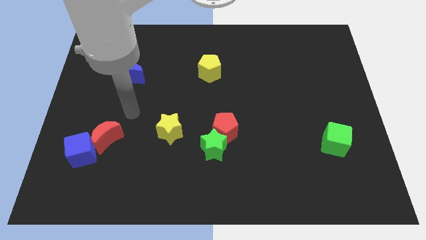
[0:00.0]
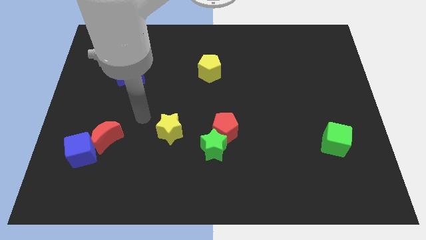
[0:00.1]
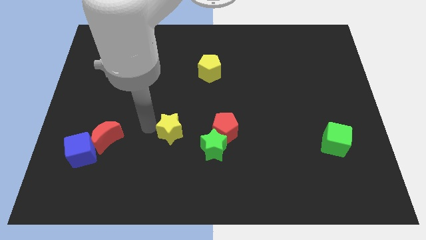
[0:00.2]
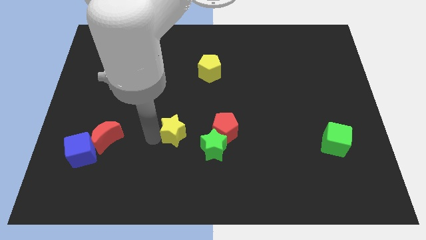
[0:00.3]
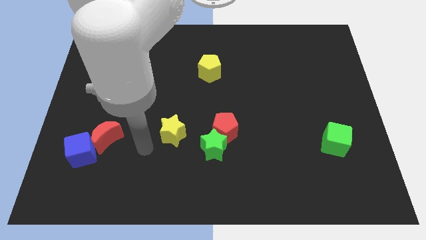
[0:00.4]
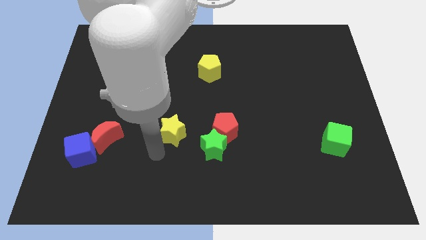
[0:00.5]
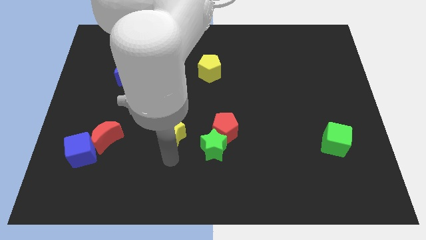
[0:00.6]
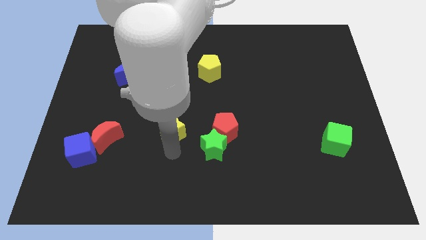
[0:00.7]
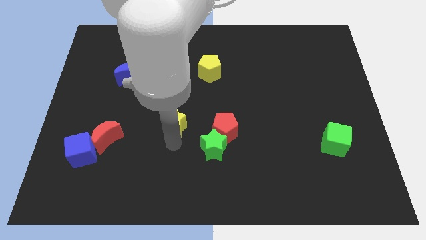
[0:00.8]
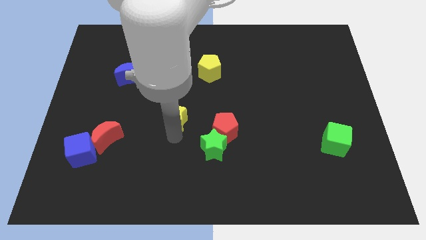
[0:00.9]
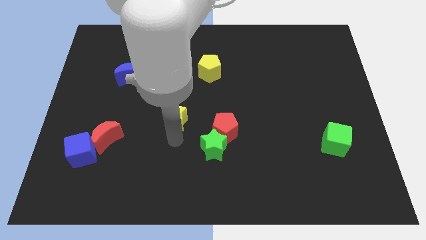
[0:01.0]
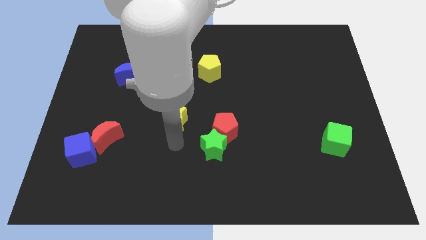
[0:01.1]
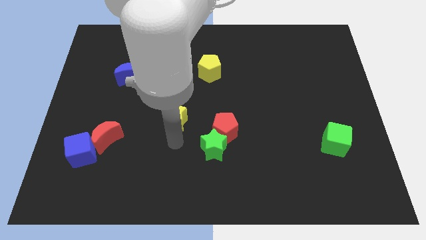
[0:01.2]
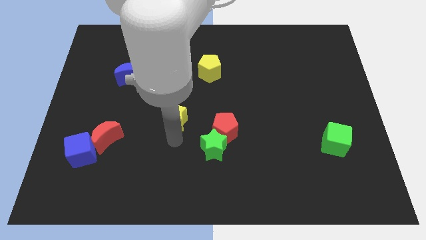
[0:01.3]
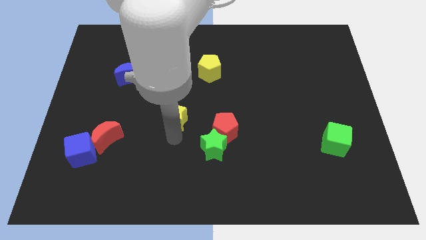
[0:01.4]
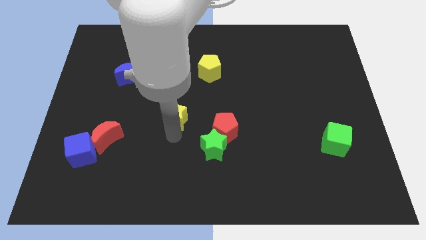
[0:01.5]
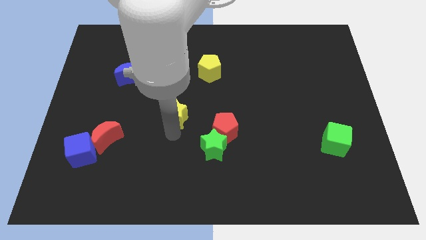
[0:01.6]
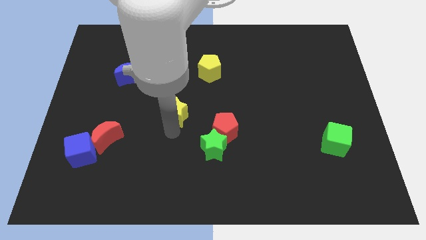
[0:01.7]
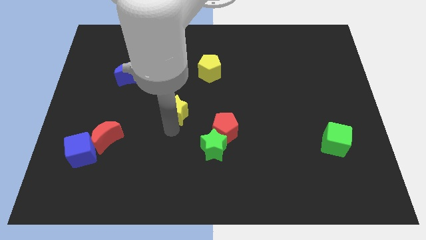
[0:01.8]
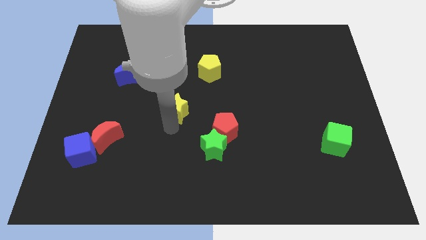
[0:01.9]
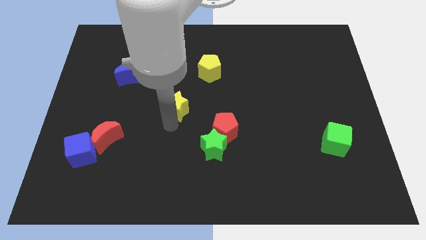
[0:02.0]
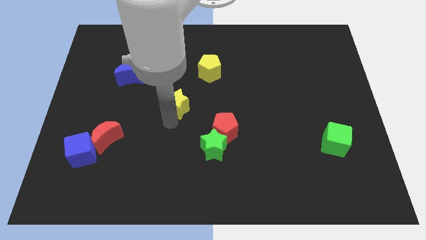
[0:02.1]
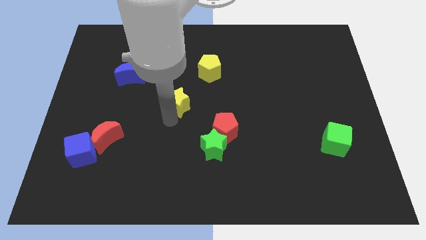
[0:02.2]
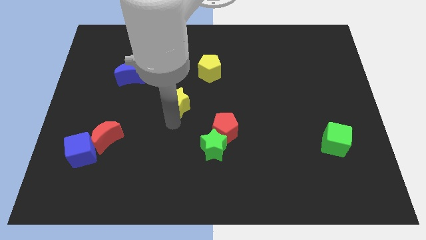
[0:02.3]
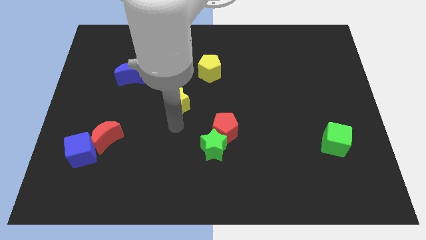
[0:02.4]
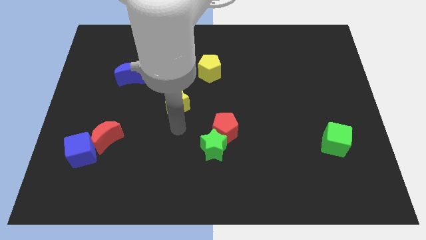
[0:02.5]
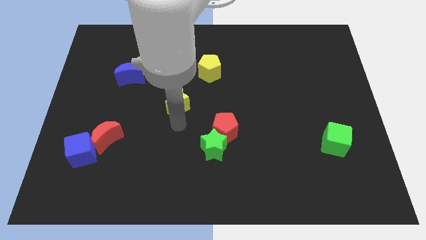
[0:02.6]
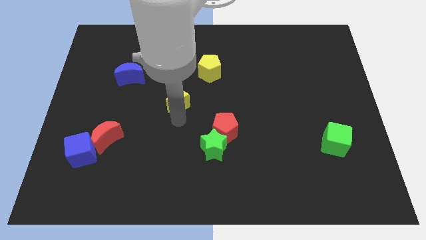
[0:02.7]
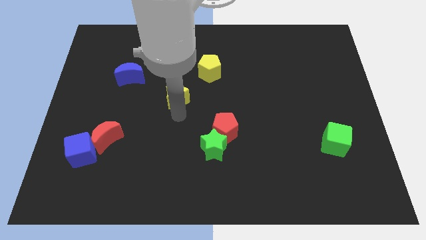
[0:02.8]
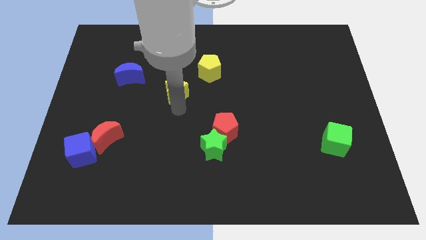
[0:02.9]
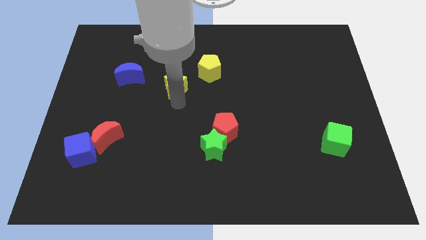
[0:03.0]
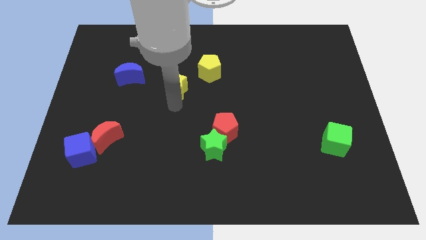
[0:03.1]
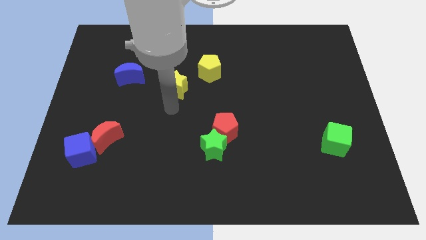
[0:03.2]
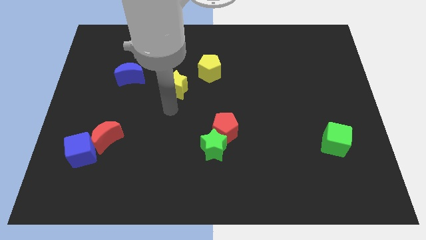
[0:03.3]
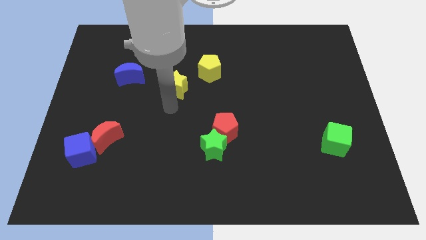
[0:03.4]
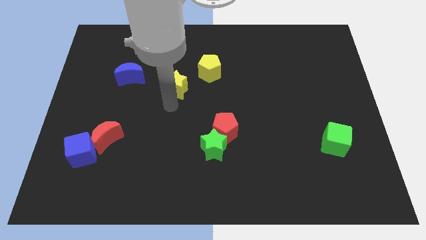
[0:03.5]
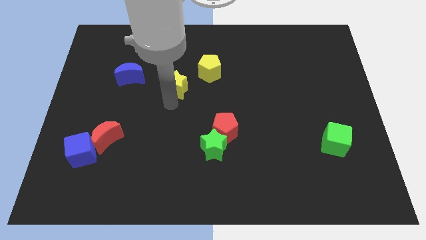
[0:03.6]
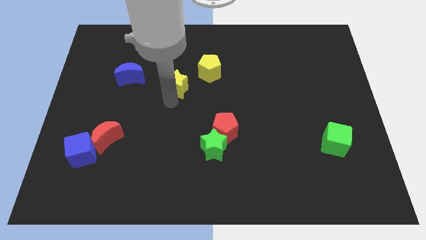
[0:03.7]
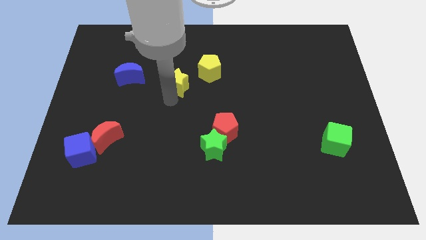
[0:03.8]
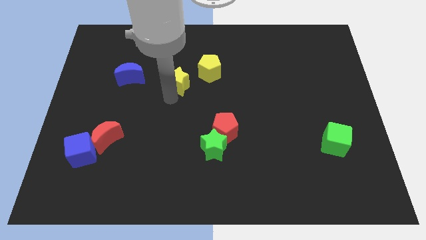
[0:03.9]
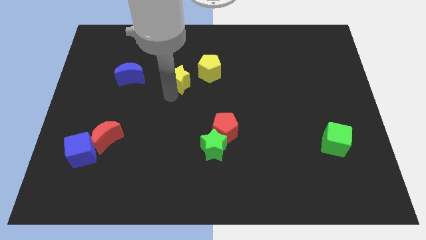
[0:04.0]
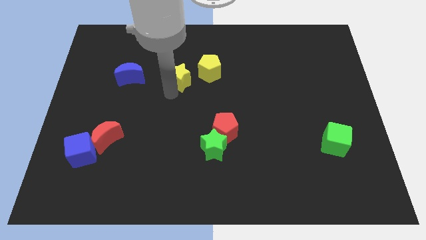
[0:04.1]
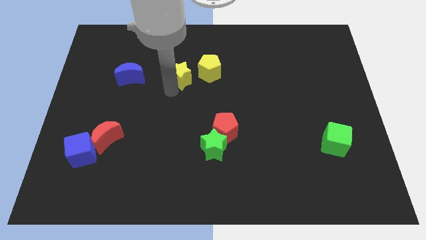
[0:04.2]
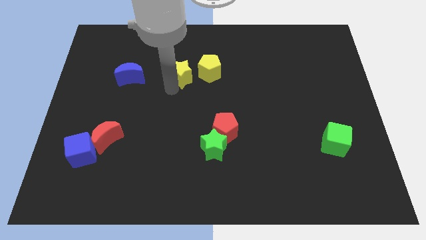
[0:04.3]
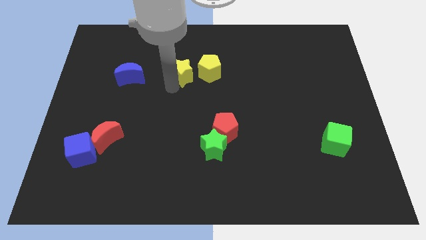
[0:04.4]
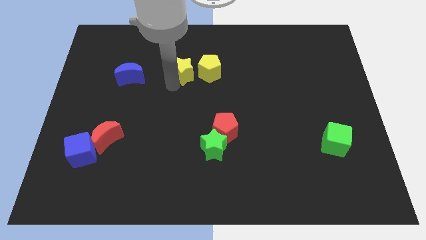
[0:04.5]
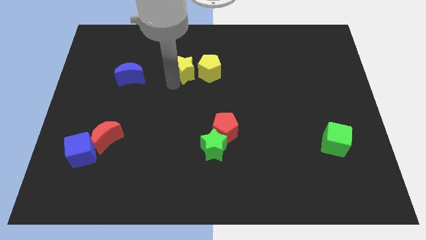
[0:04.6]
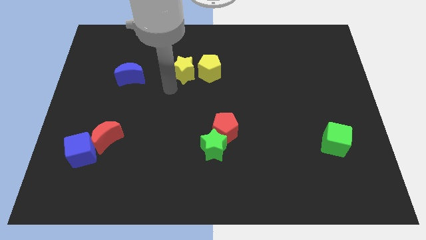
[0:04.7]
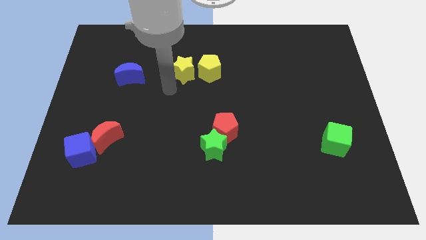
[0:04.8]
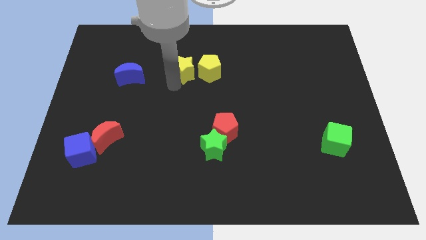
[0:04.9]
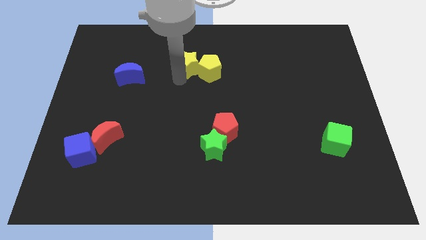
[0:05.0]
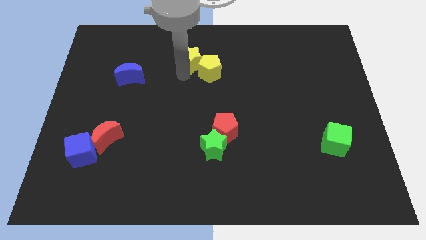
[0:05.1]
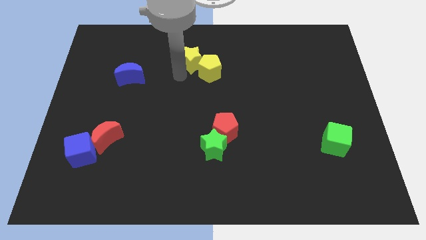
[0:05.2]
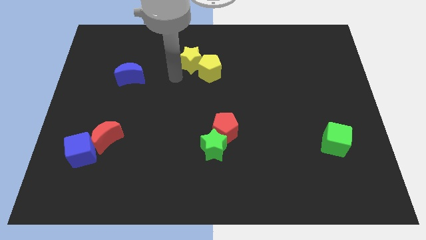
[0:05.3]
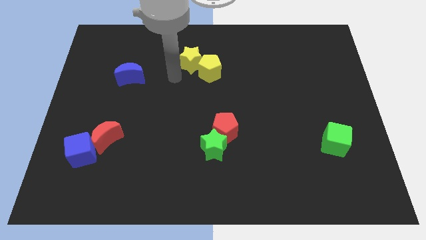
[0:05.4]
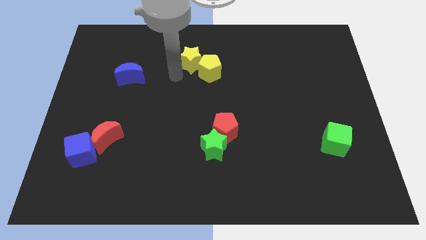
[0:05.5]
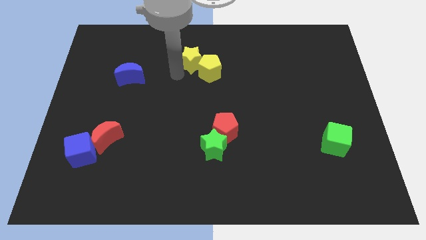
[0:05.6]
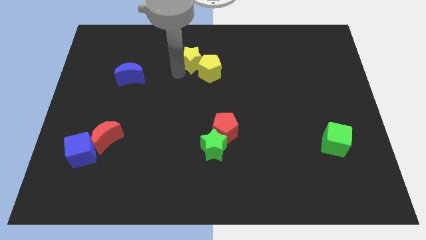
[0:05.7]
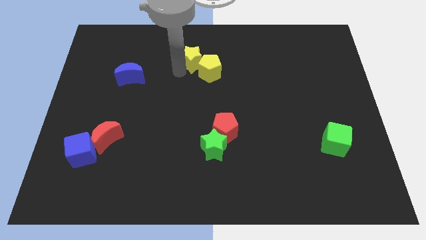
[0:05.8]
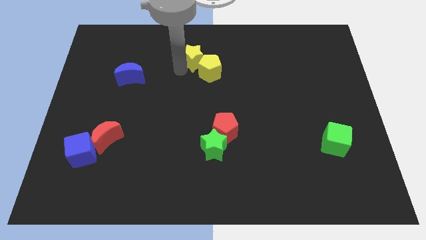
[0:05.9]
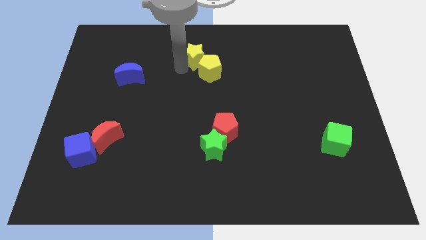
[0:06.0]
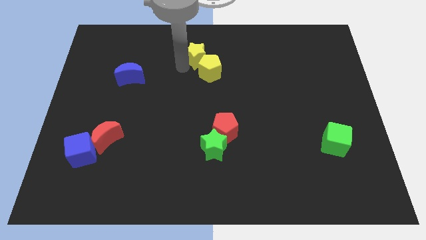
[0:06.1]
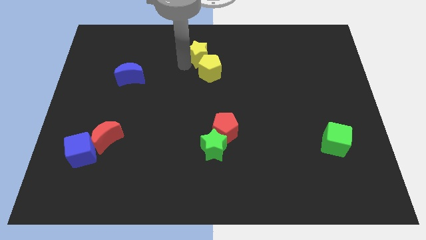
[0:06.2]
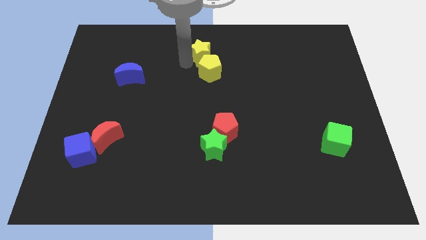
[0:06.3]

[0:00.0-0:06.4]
put the yellow star to the towards your base
